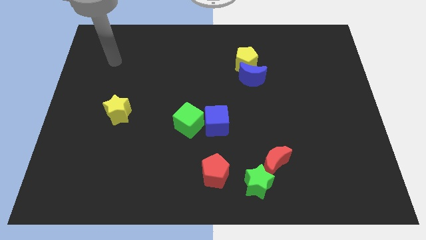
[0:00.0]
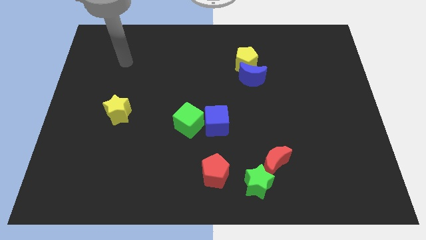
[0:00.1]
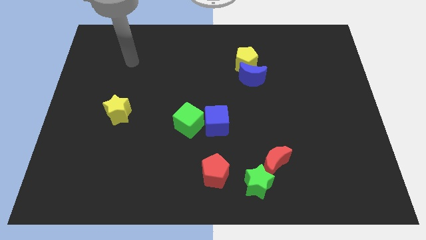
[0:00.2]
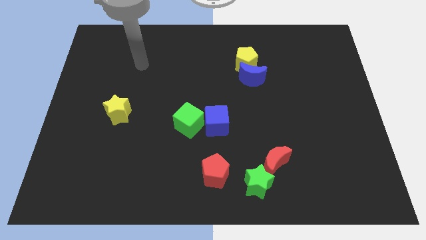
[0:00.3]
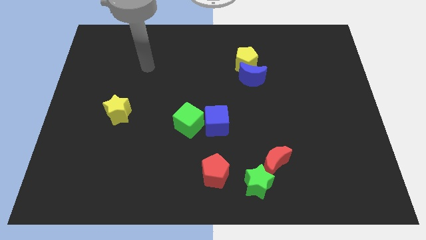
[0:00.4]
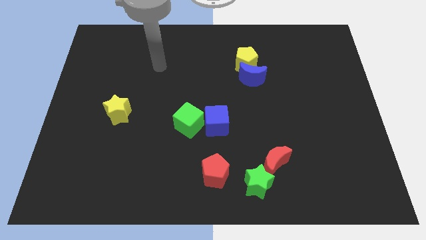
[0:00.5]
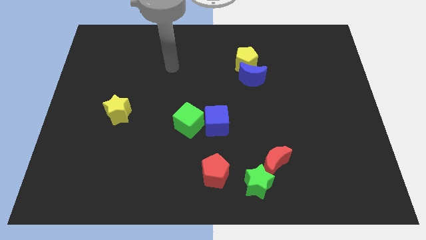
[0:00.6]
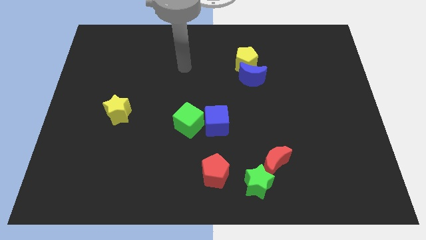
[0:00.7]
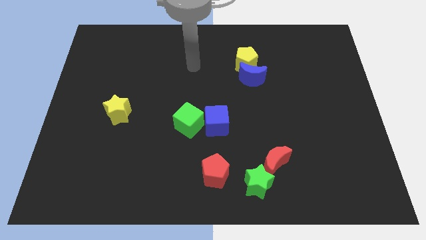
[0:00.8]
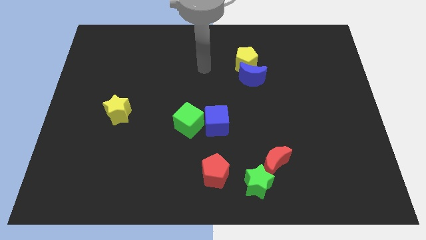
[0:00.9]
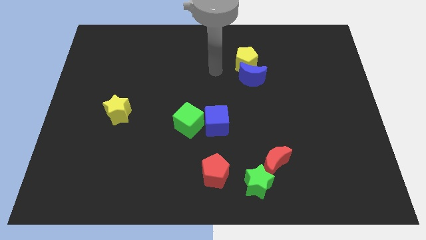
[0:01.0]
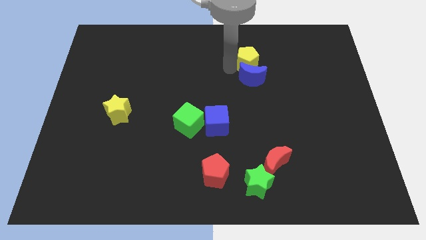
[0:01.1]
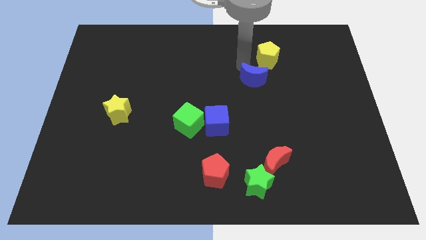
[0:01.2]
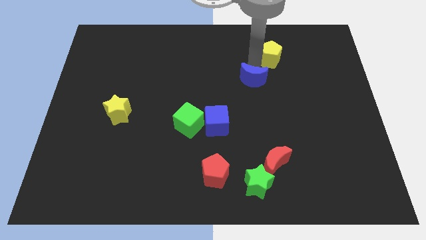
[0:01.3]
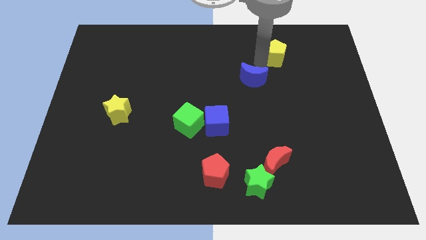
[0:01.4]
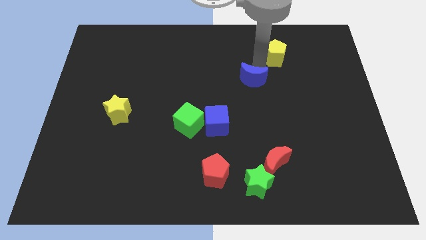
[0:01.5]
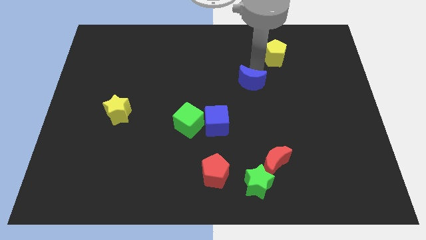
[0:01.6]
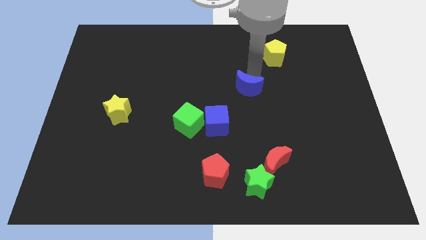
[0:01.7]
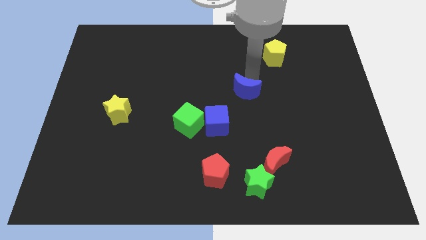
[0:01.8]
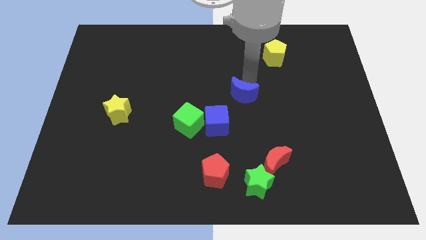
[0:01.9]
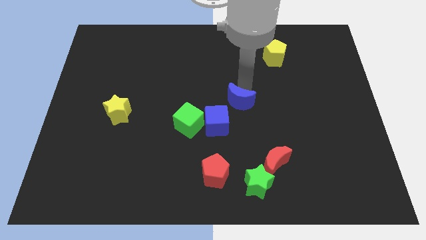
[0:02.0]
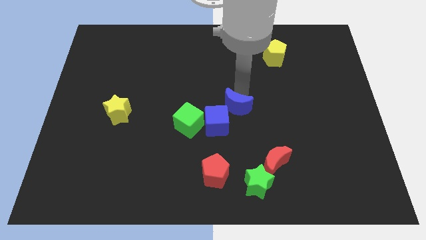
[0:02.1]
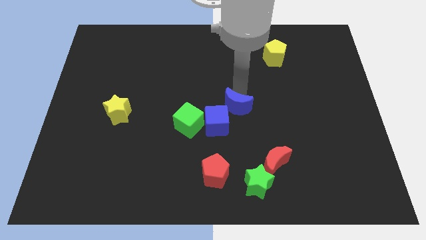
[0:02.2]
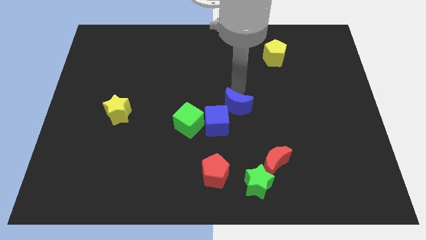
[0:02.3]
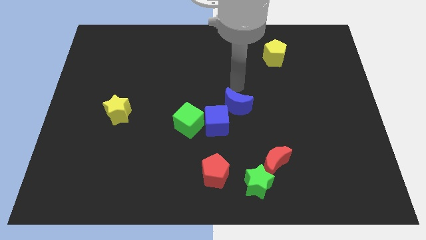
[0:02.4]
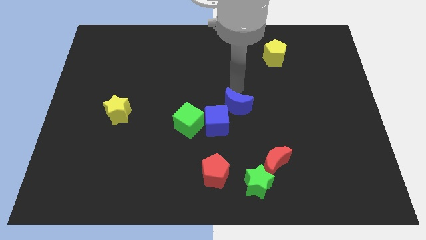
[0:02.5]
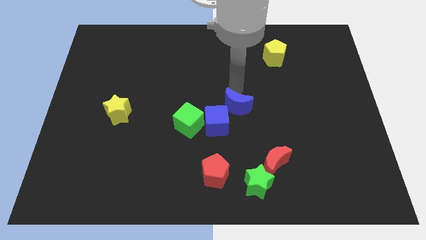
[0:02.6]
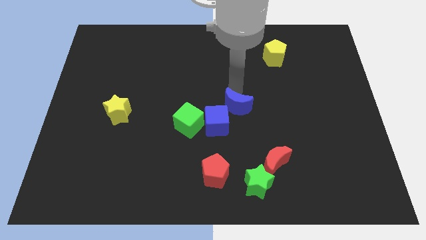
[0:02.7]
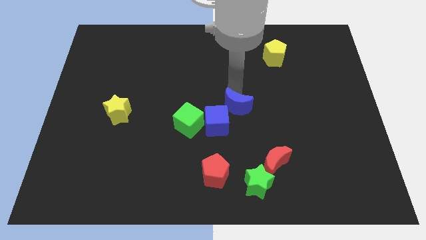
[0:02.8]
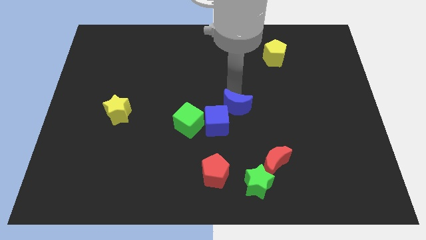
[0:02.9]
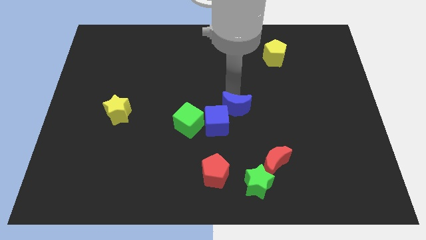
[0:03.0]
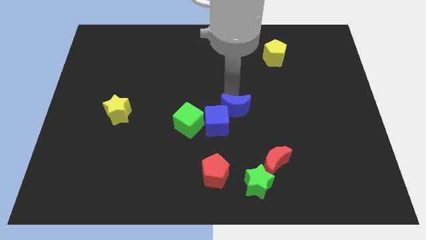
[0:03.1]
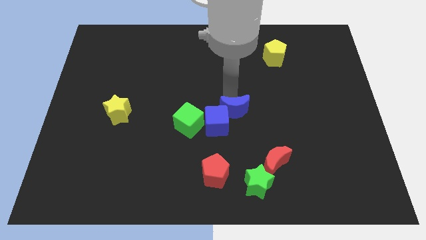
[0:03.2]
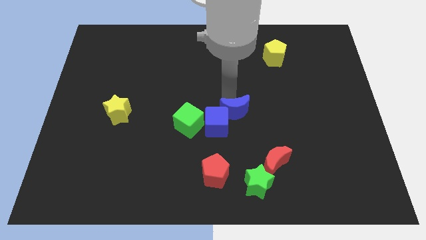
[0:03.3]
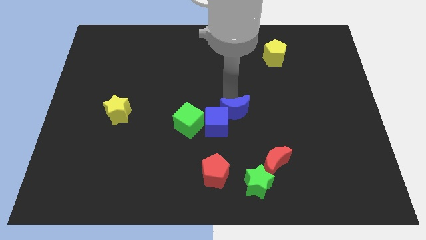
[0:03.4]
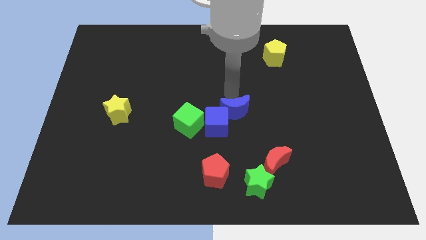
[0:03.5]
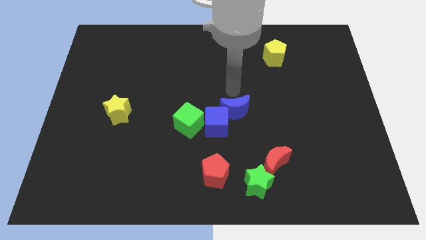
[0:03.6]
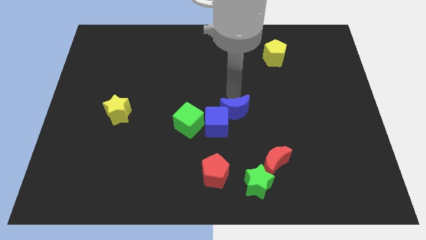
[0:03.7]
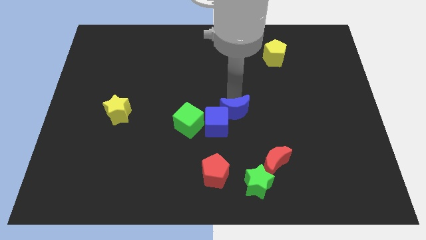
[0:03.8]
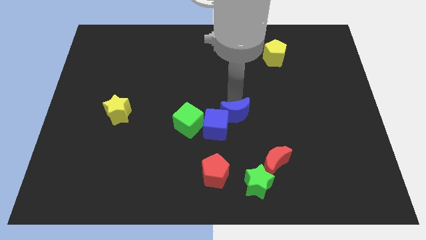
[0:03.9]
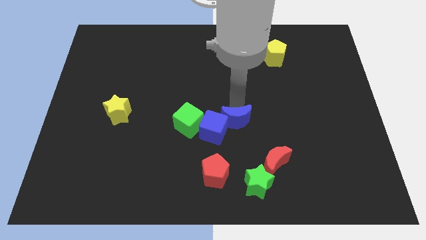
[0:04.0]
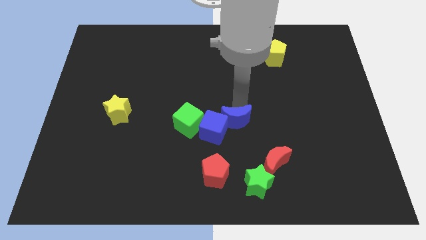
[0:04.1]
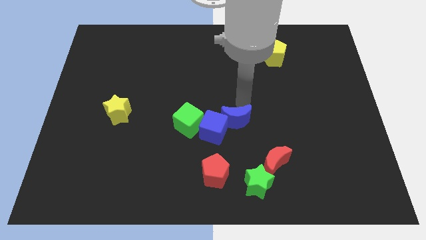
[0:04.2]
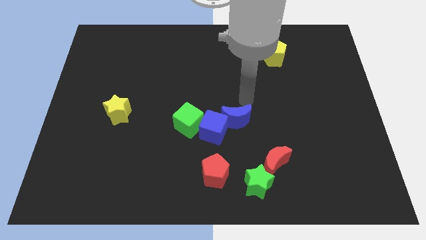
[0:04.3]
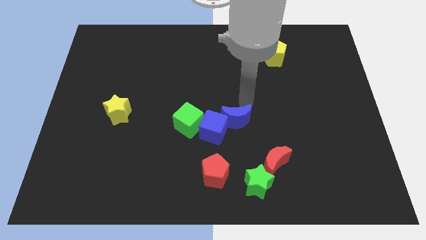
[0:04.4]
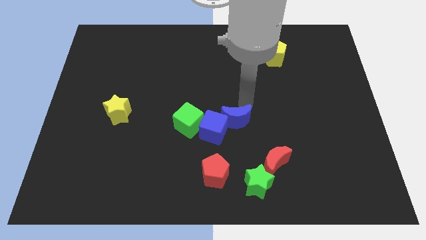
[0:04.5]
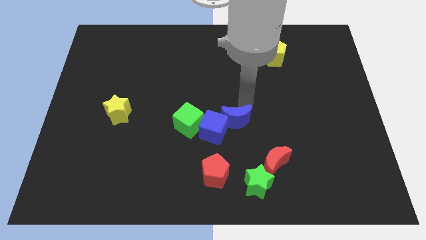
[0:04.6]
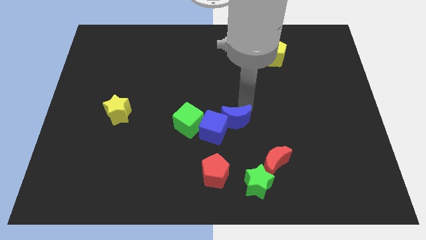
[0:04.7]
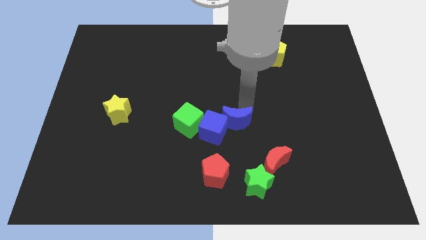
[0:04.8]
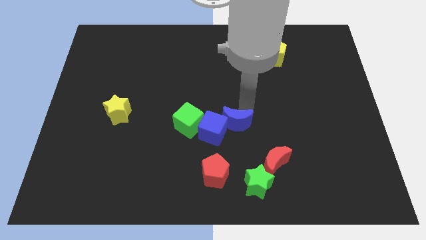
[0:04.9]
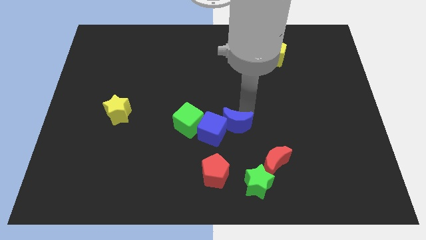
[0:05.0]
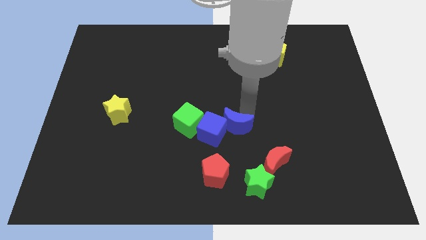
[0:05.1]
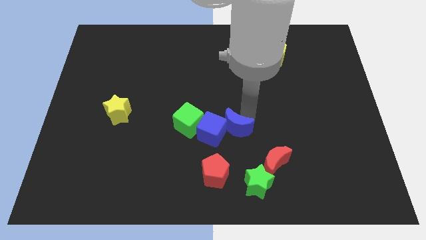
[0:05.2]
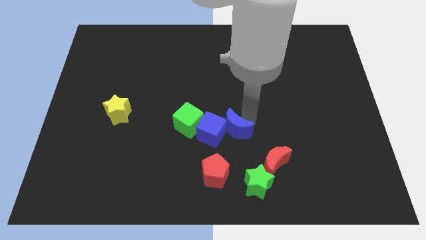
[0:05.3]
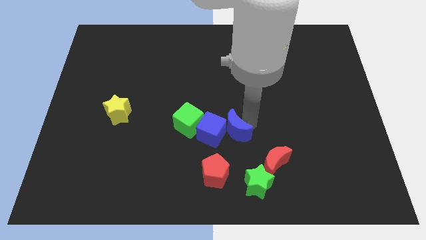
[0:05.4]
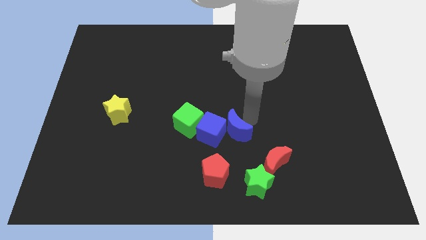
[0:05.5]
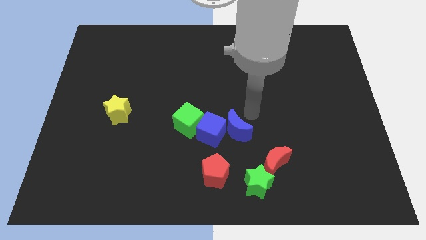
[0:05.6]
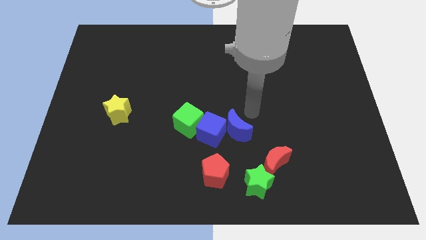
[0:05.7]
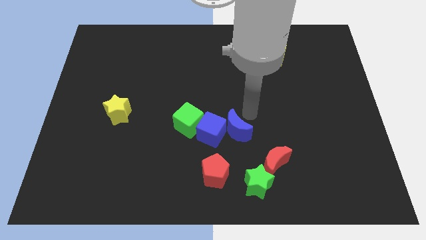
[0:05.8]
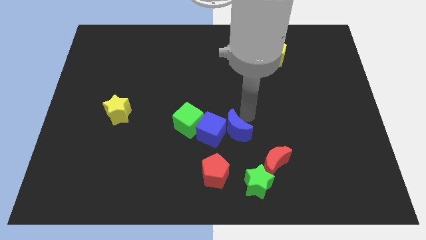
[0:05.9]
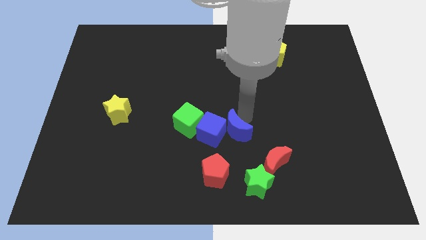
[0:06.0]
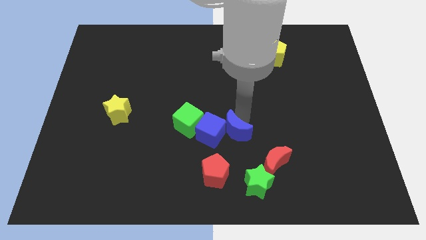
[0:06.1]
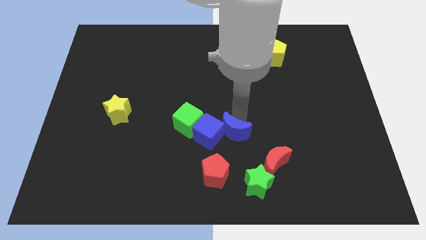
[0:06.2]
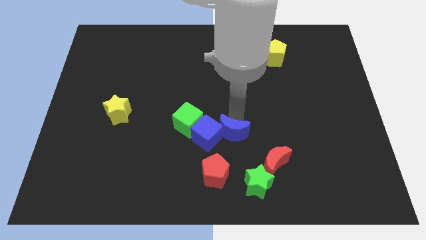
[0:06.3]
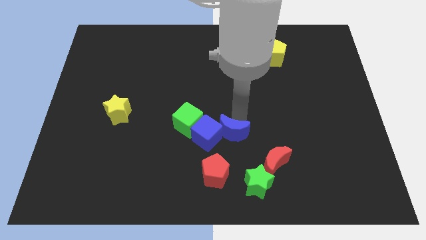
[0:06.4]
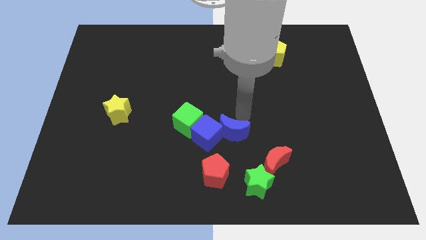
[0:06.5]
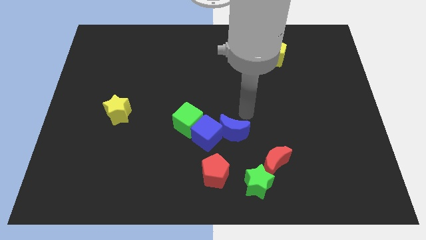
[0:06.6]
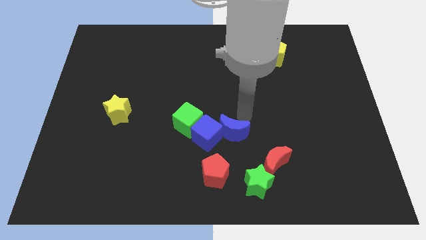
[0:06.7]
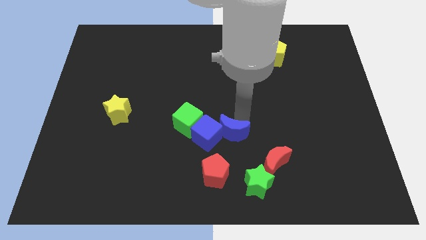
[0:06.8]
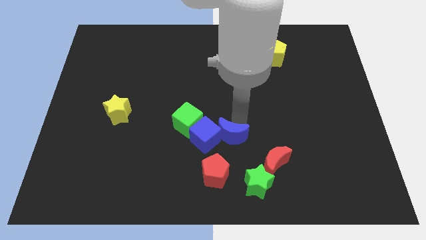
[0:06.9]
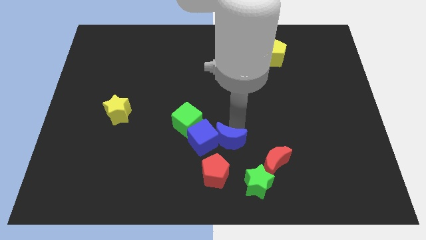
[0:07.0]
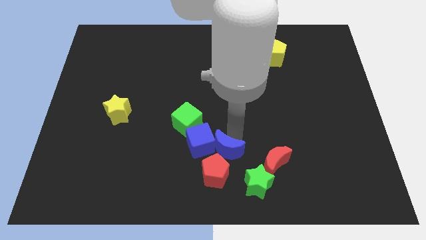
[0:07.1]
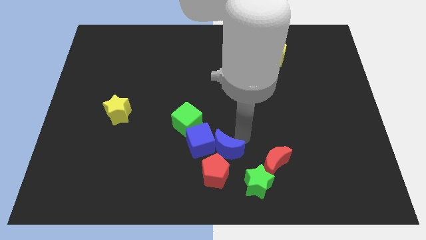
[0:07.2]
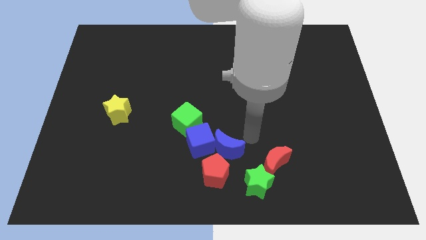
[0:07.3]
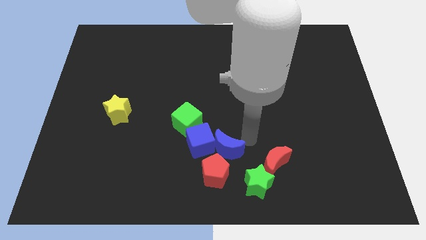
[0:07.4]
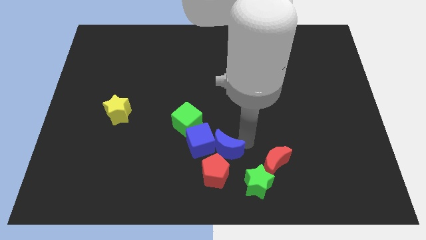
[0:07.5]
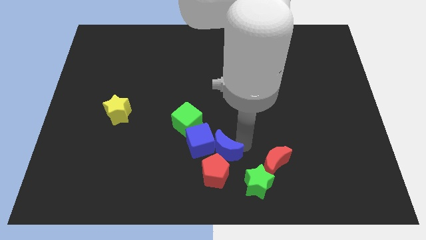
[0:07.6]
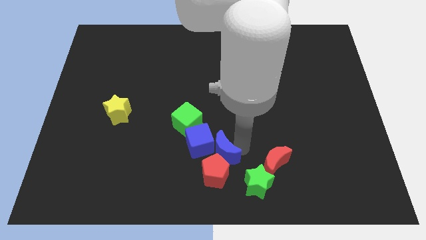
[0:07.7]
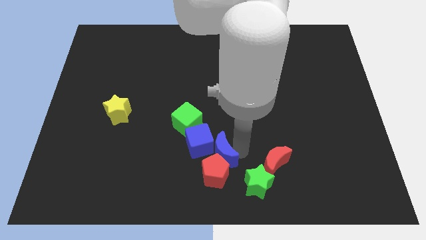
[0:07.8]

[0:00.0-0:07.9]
push the blue moon to the bottom side
